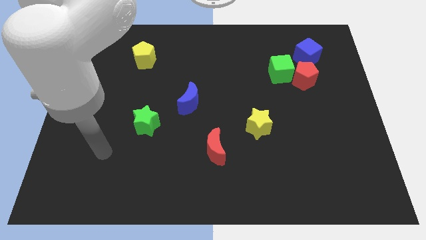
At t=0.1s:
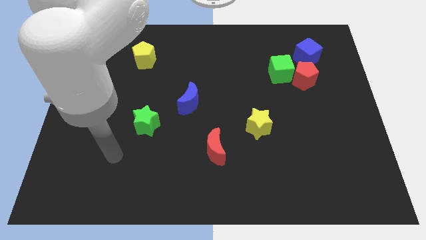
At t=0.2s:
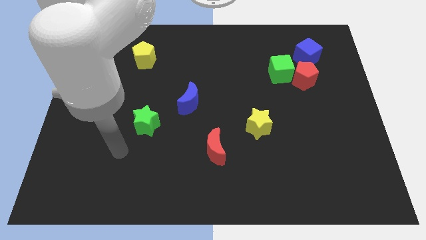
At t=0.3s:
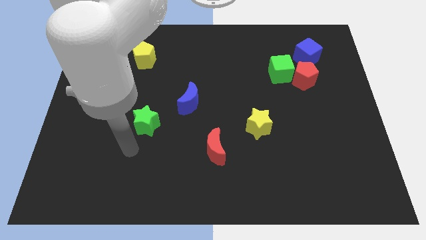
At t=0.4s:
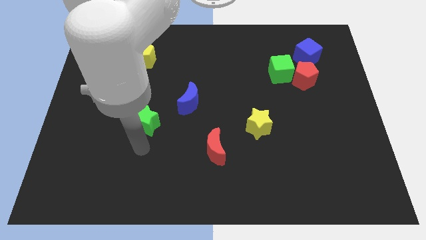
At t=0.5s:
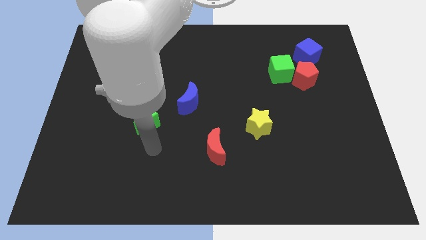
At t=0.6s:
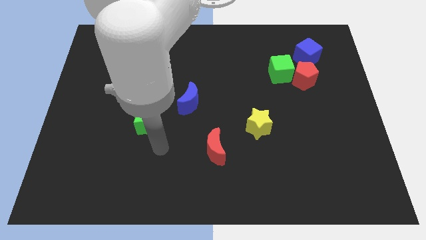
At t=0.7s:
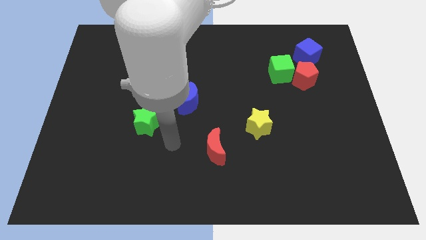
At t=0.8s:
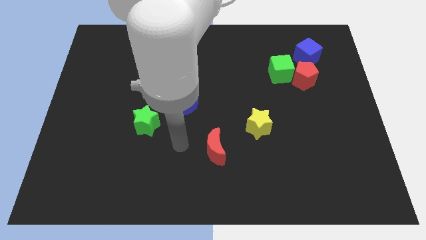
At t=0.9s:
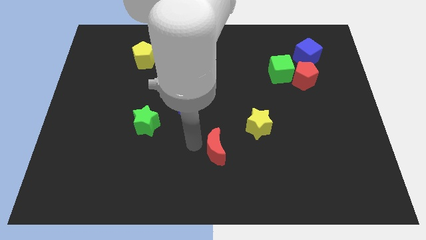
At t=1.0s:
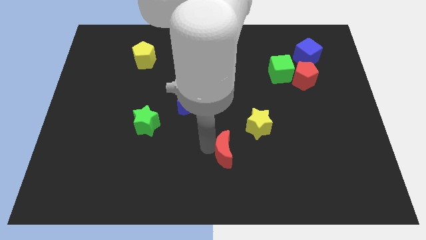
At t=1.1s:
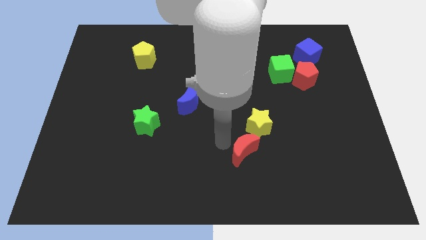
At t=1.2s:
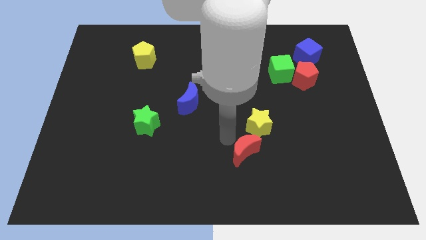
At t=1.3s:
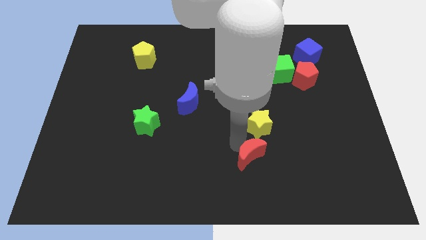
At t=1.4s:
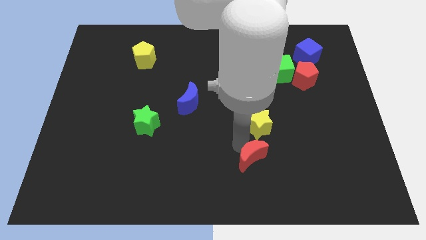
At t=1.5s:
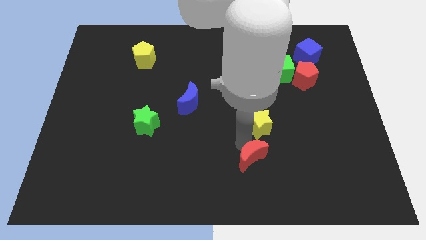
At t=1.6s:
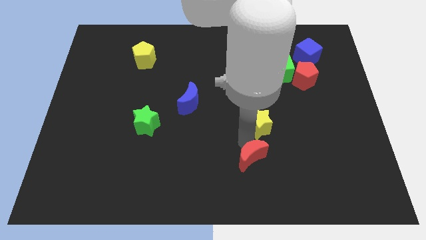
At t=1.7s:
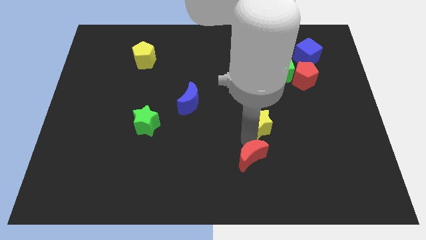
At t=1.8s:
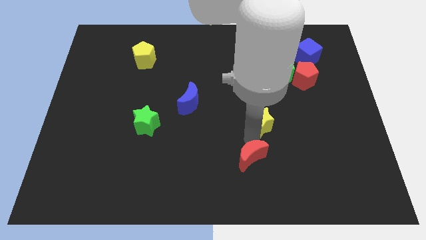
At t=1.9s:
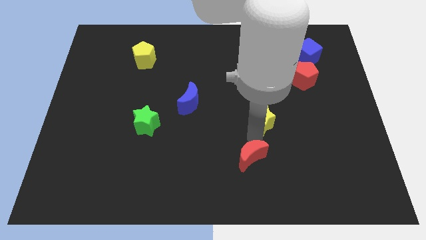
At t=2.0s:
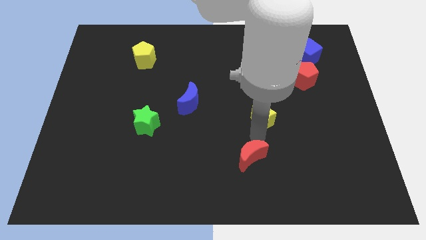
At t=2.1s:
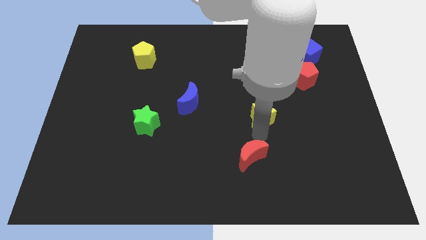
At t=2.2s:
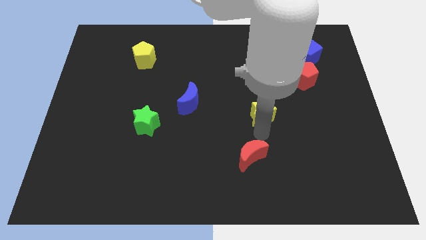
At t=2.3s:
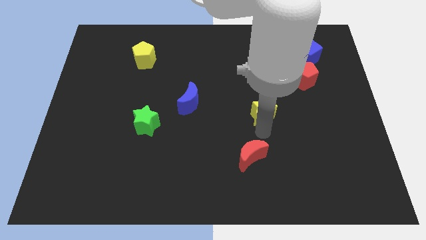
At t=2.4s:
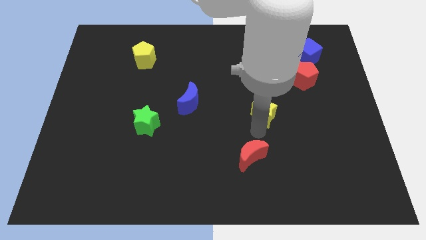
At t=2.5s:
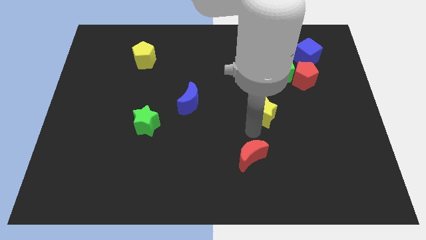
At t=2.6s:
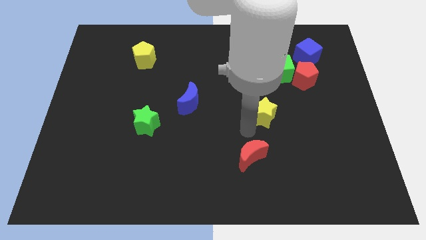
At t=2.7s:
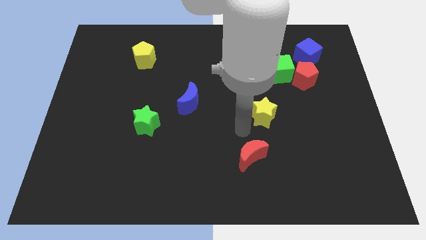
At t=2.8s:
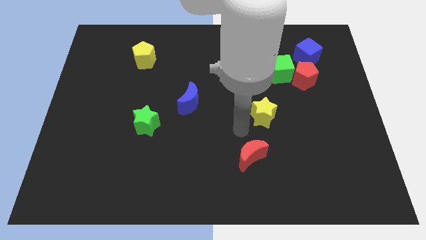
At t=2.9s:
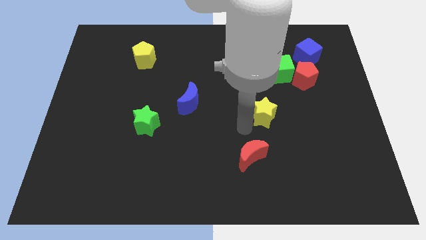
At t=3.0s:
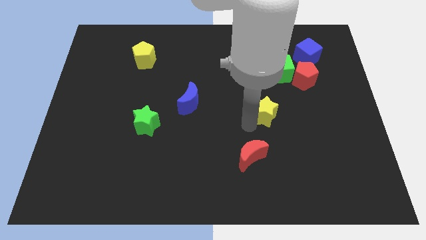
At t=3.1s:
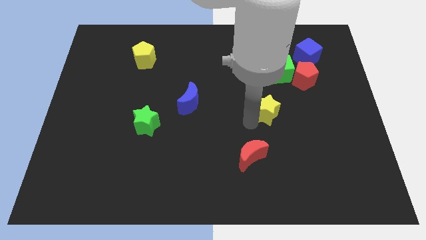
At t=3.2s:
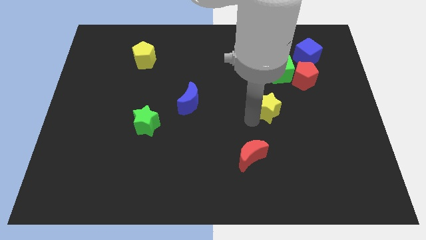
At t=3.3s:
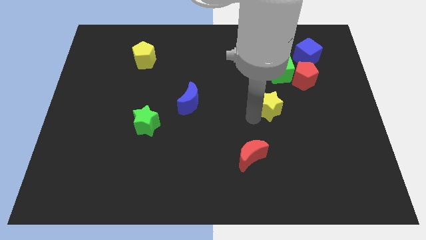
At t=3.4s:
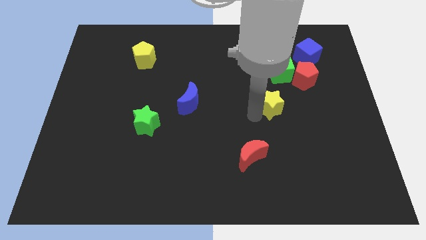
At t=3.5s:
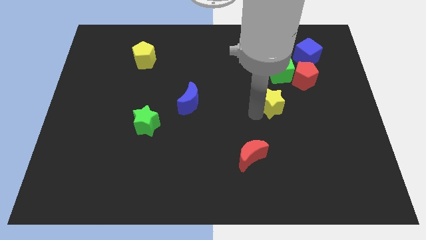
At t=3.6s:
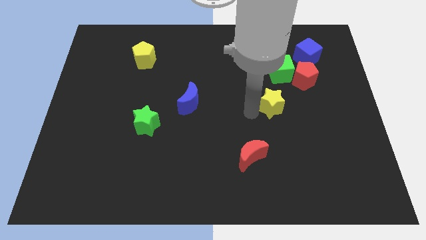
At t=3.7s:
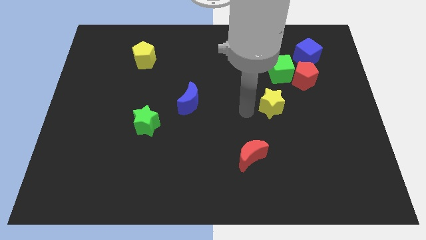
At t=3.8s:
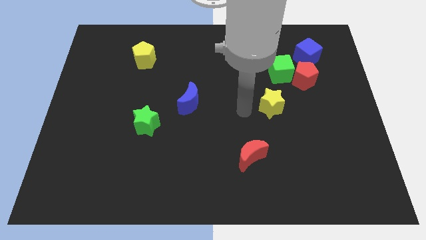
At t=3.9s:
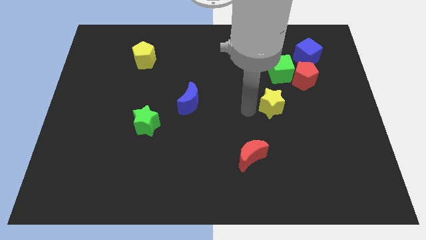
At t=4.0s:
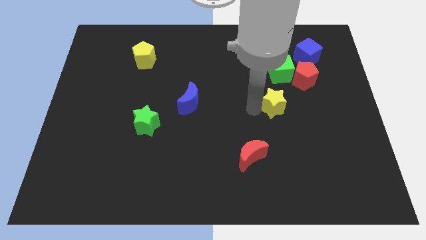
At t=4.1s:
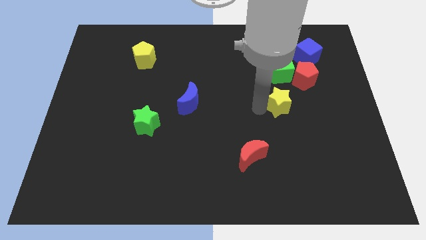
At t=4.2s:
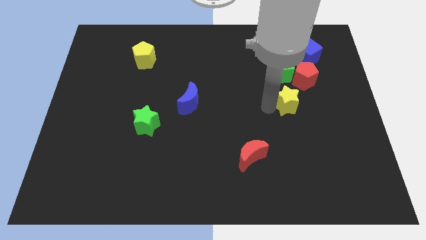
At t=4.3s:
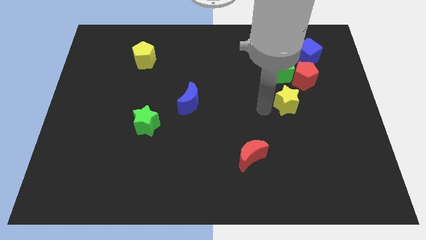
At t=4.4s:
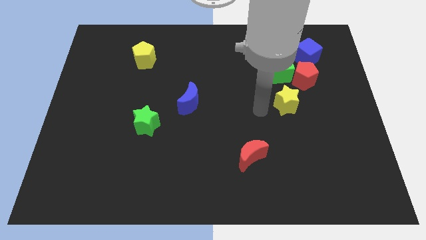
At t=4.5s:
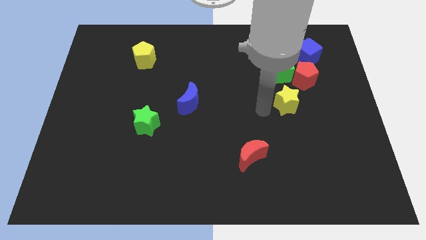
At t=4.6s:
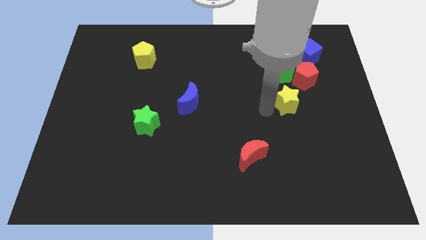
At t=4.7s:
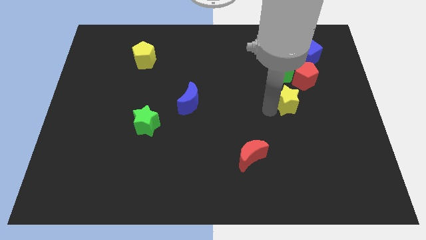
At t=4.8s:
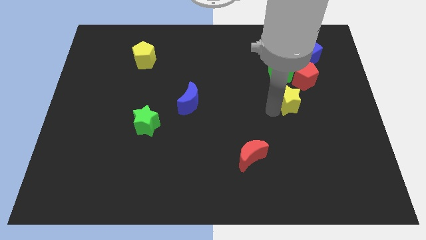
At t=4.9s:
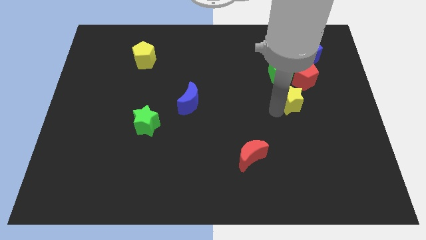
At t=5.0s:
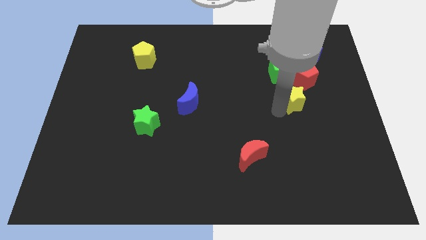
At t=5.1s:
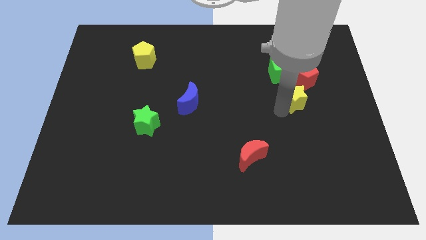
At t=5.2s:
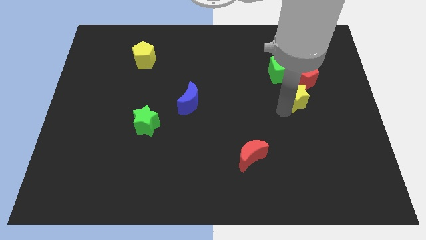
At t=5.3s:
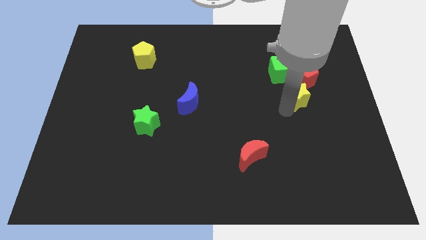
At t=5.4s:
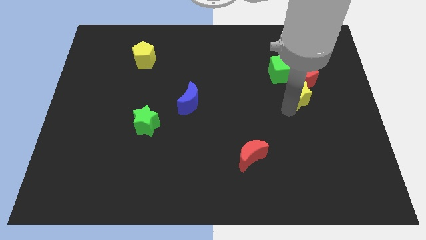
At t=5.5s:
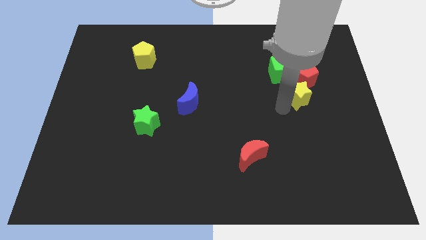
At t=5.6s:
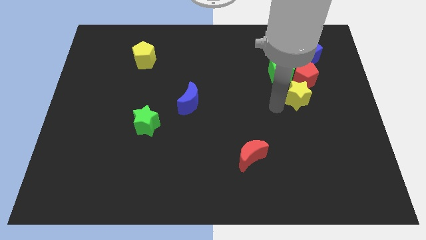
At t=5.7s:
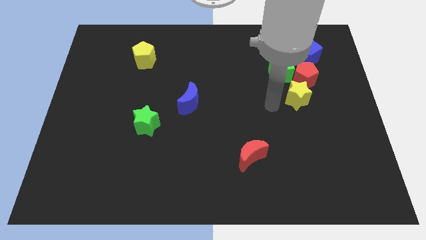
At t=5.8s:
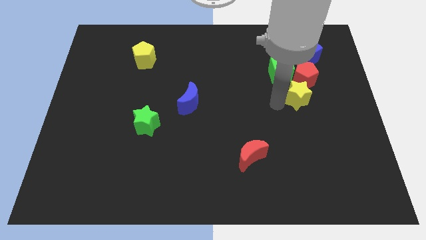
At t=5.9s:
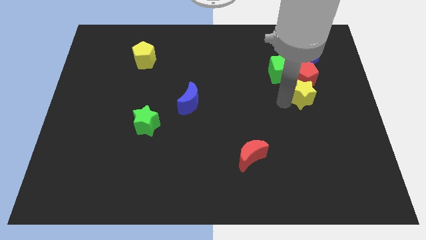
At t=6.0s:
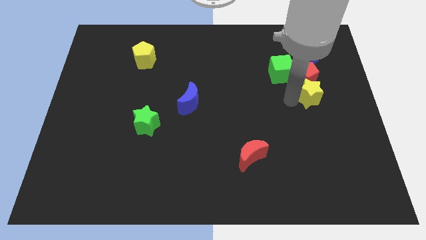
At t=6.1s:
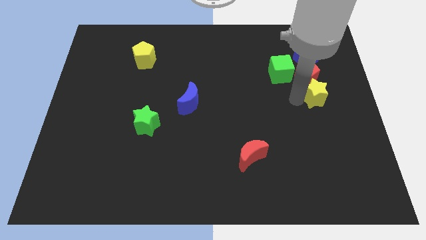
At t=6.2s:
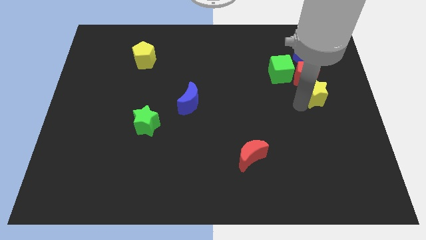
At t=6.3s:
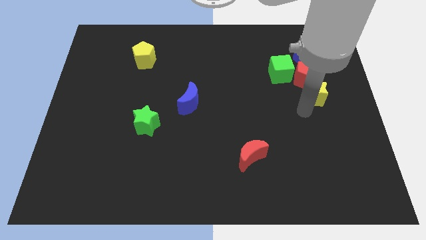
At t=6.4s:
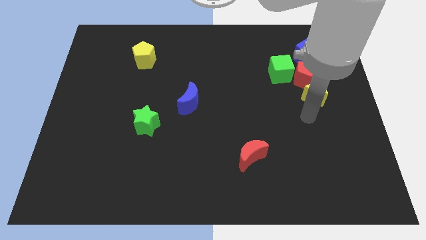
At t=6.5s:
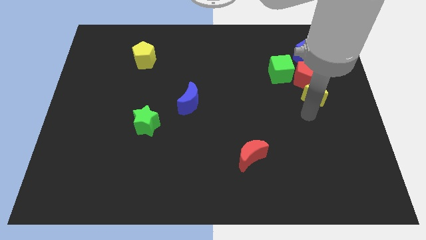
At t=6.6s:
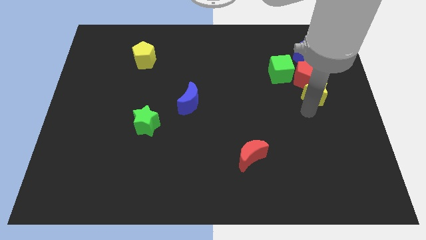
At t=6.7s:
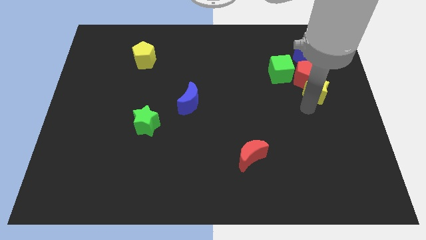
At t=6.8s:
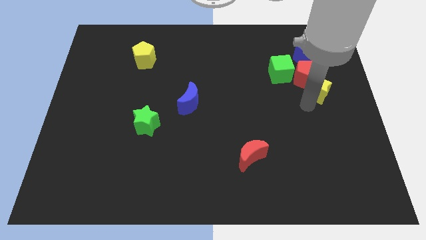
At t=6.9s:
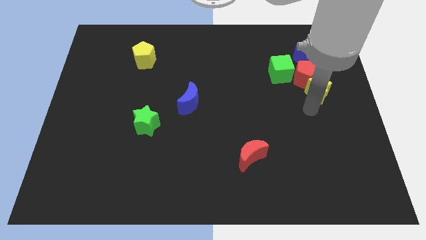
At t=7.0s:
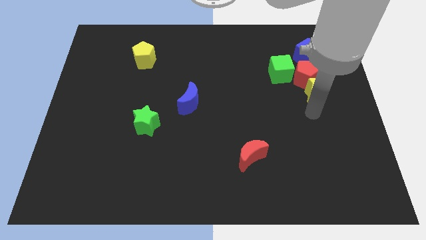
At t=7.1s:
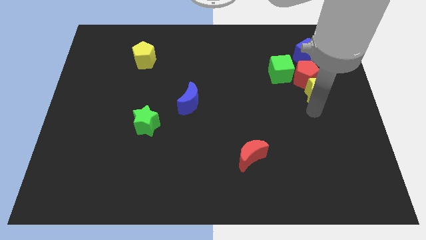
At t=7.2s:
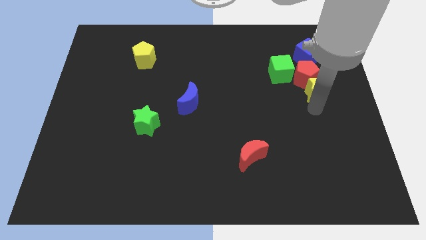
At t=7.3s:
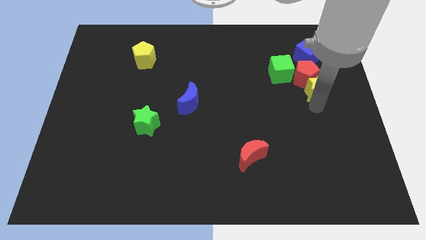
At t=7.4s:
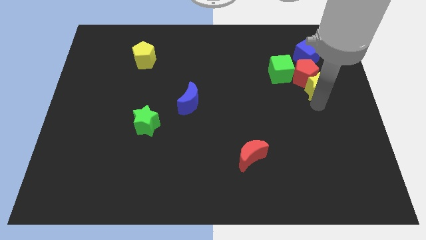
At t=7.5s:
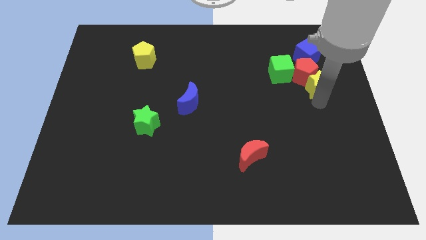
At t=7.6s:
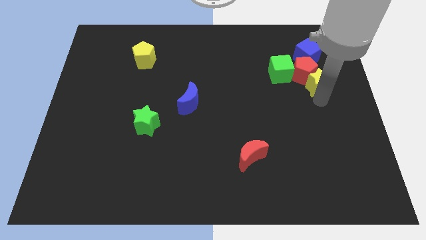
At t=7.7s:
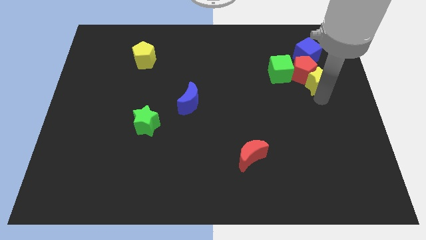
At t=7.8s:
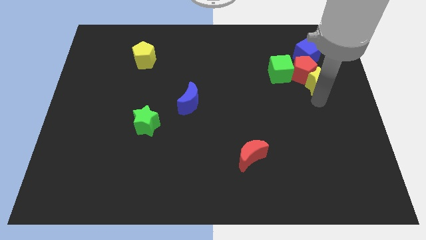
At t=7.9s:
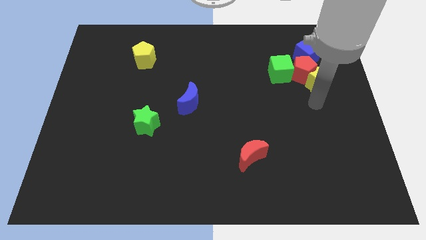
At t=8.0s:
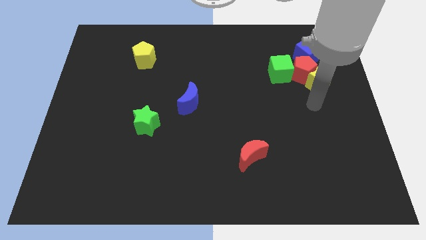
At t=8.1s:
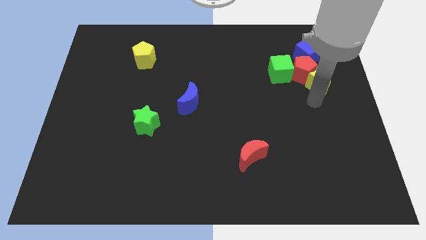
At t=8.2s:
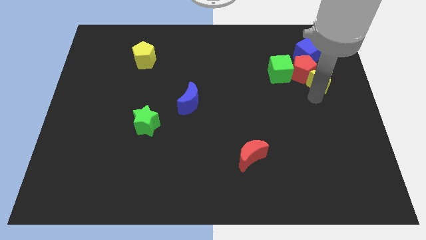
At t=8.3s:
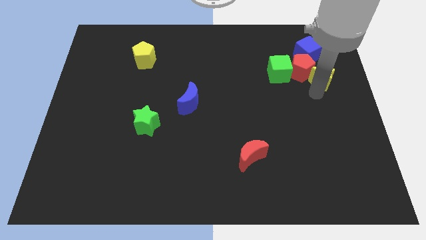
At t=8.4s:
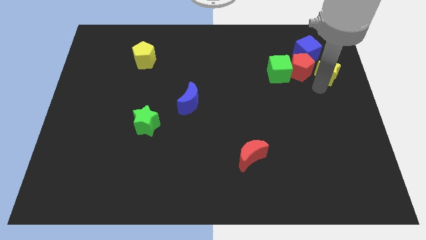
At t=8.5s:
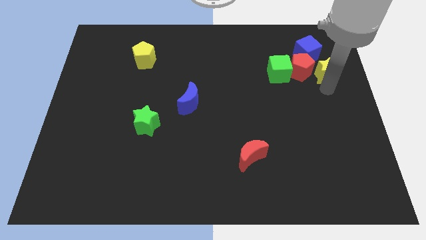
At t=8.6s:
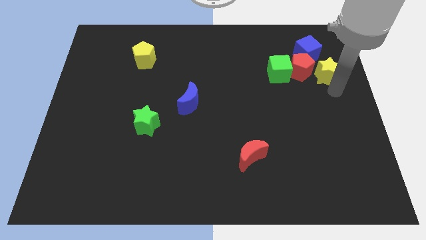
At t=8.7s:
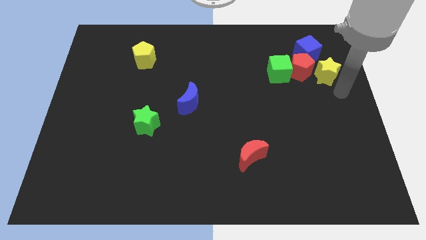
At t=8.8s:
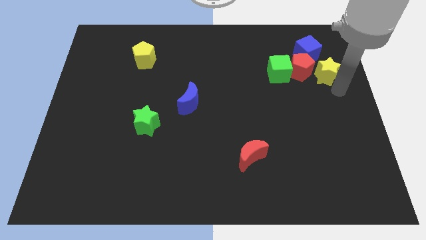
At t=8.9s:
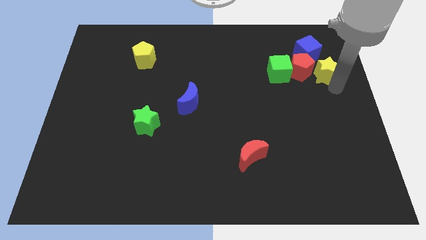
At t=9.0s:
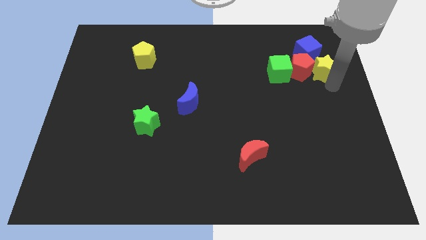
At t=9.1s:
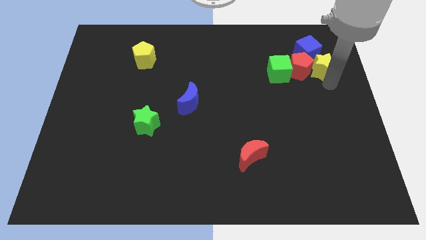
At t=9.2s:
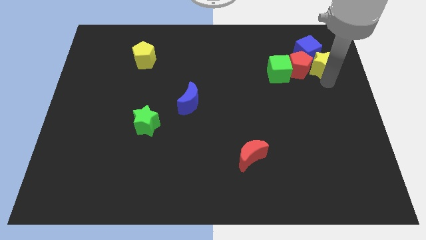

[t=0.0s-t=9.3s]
push the yellow star towards the blue cube
